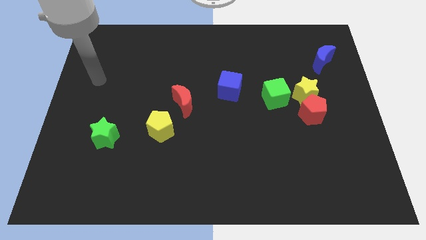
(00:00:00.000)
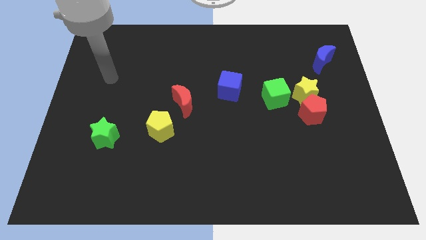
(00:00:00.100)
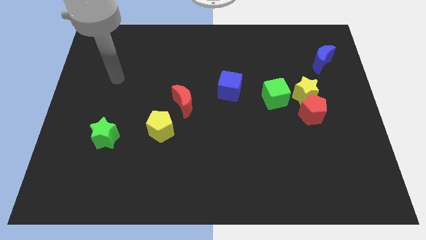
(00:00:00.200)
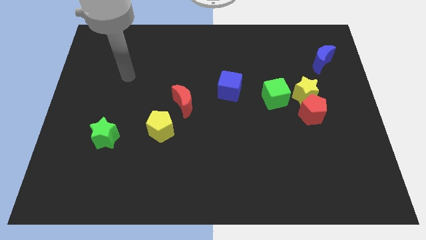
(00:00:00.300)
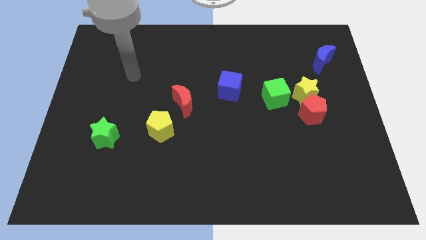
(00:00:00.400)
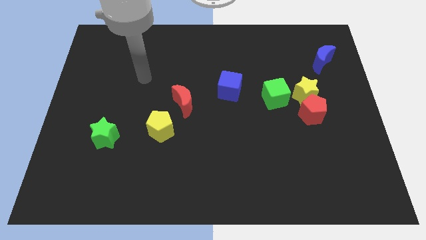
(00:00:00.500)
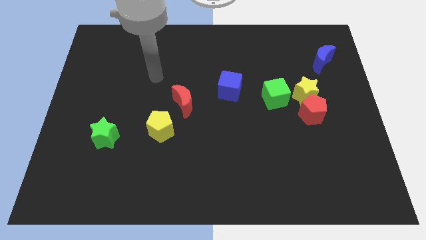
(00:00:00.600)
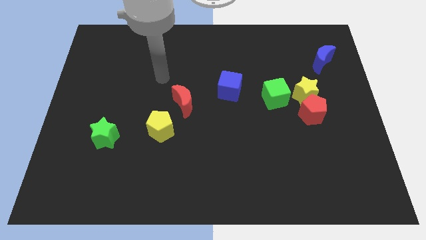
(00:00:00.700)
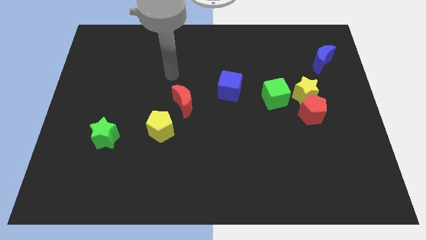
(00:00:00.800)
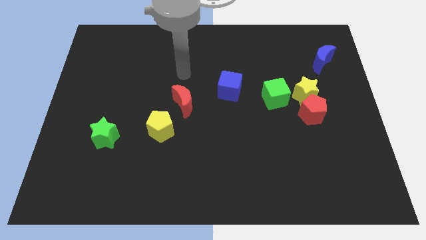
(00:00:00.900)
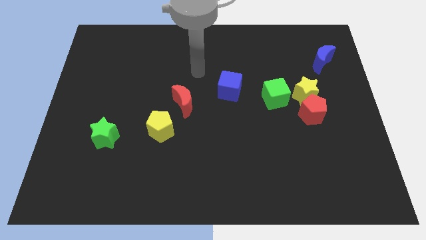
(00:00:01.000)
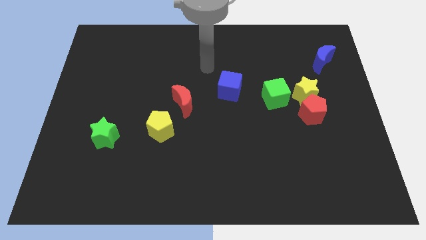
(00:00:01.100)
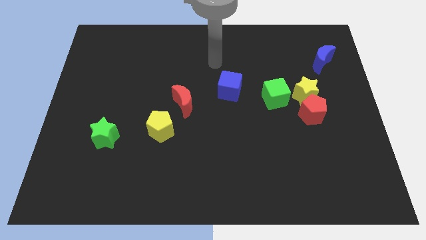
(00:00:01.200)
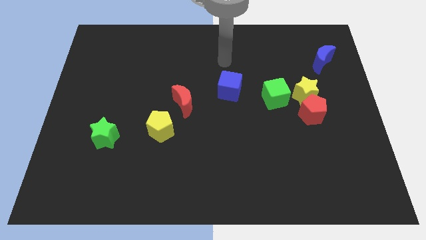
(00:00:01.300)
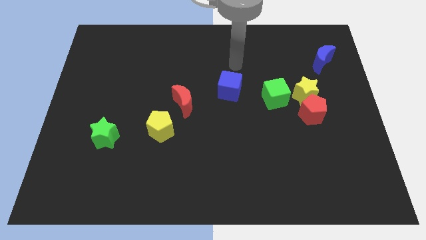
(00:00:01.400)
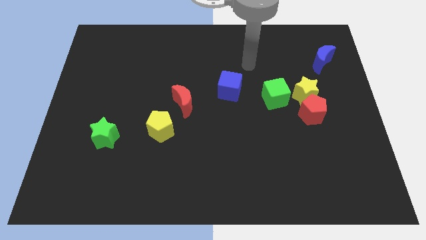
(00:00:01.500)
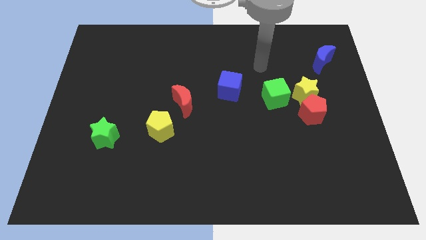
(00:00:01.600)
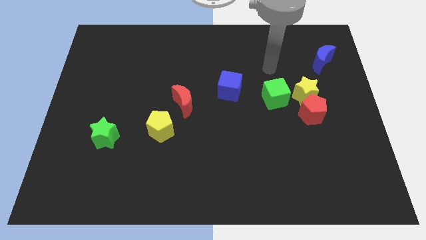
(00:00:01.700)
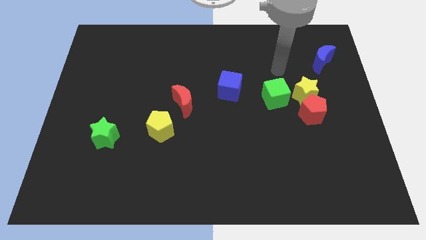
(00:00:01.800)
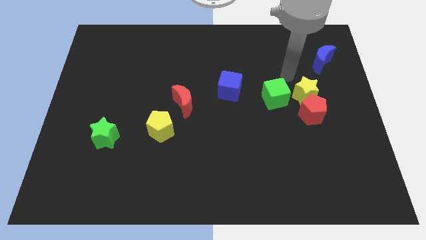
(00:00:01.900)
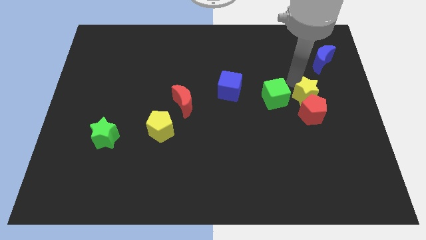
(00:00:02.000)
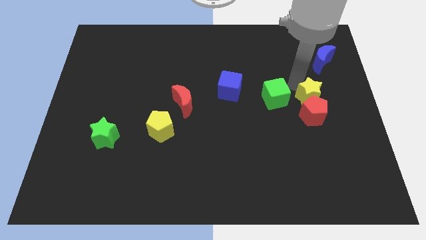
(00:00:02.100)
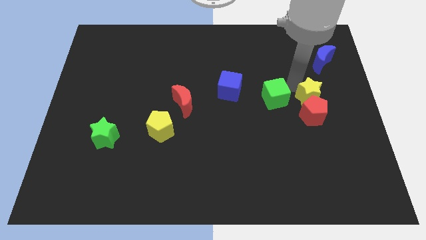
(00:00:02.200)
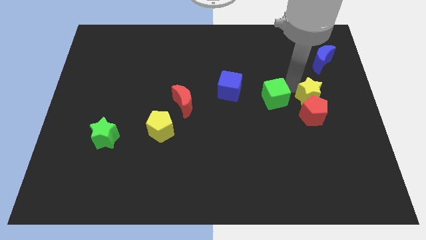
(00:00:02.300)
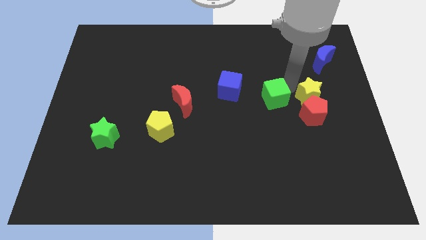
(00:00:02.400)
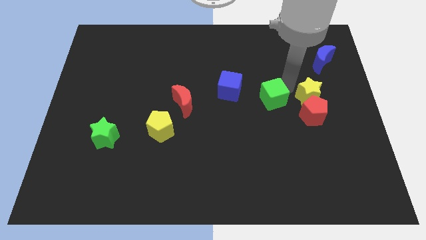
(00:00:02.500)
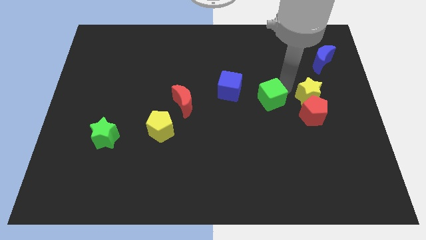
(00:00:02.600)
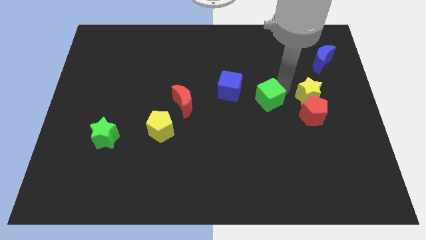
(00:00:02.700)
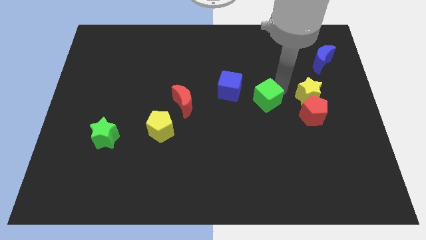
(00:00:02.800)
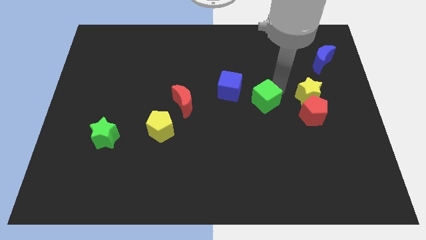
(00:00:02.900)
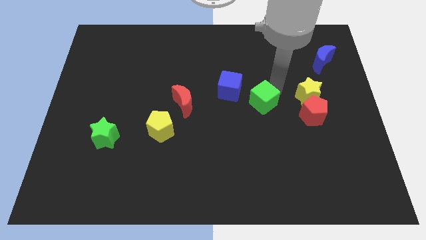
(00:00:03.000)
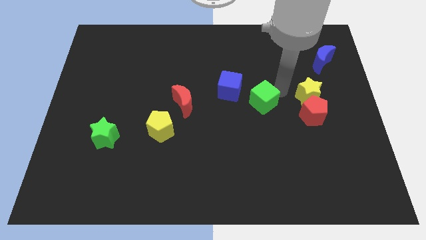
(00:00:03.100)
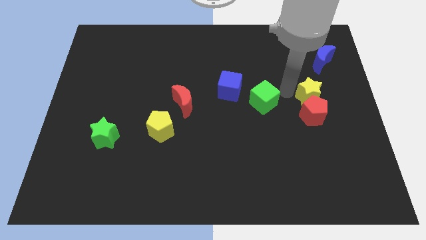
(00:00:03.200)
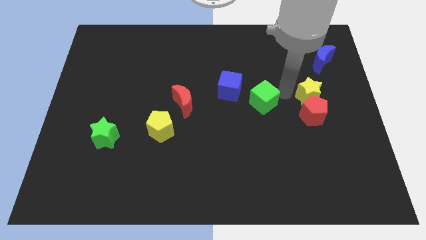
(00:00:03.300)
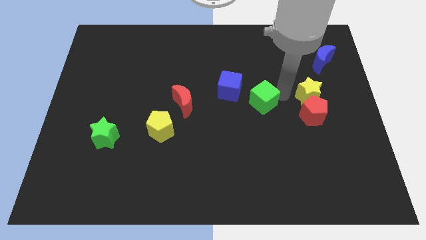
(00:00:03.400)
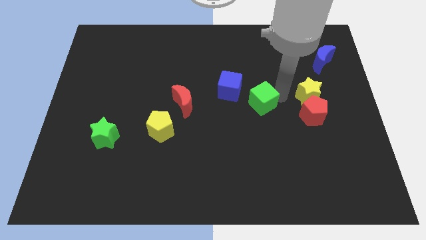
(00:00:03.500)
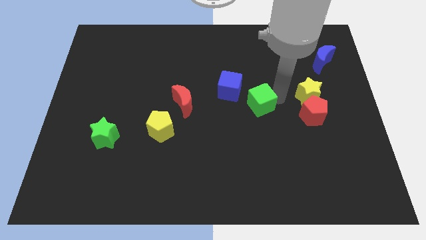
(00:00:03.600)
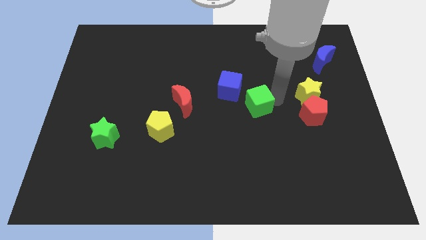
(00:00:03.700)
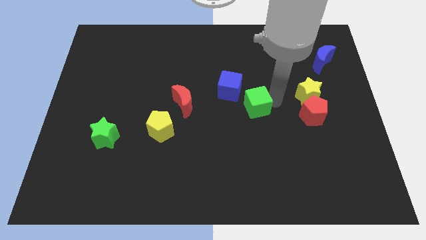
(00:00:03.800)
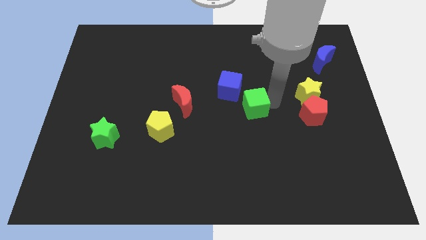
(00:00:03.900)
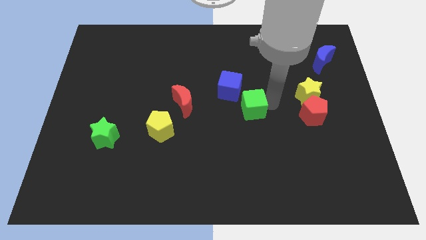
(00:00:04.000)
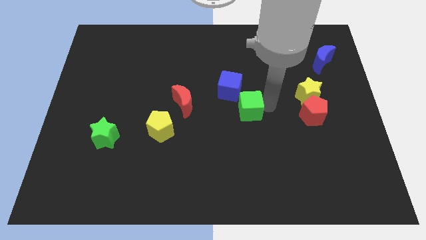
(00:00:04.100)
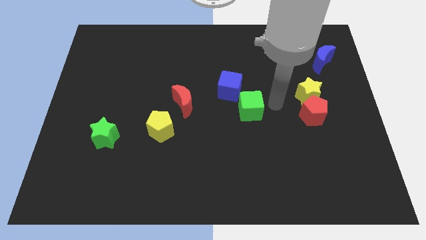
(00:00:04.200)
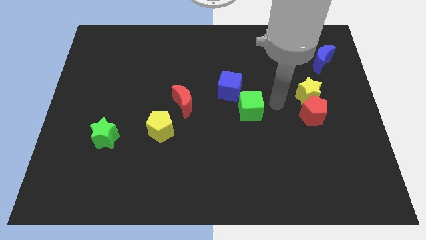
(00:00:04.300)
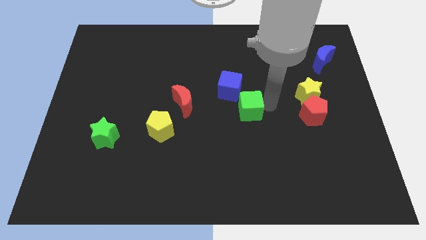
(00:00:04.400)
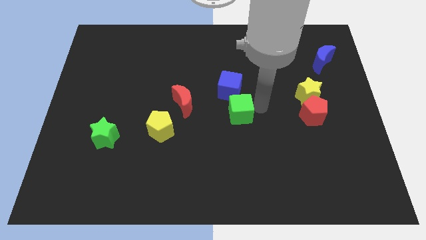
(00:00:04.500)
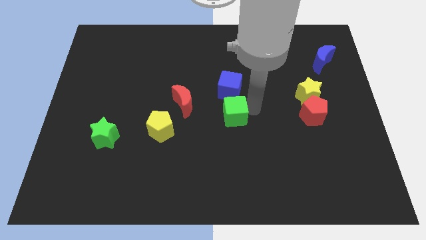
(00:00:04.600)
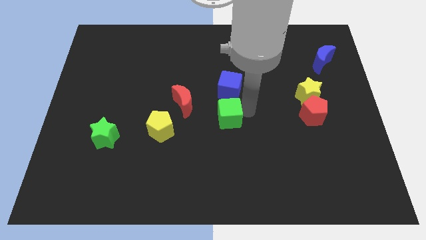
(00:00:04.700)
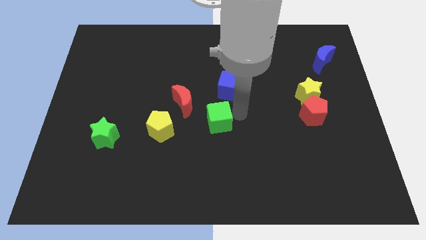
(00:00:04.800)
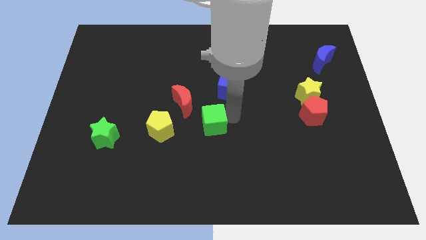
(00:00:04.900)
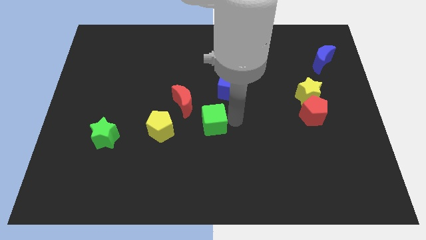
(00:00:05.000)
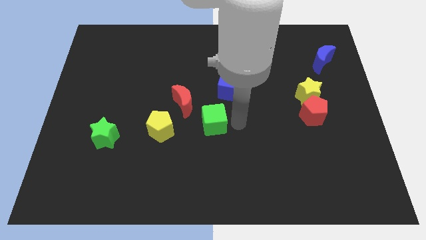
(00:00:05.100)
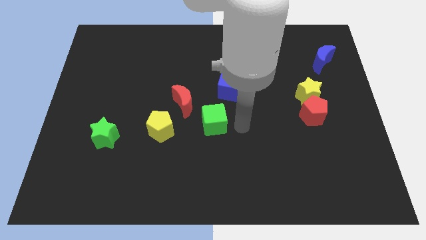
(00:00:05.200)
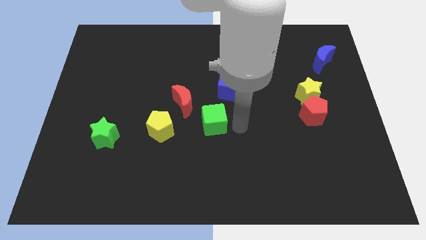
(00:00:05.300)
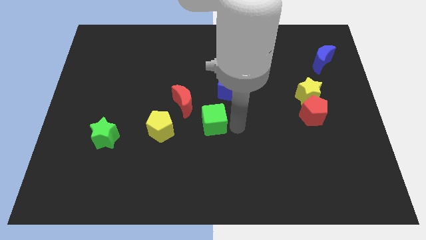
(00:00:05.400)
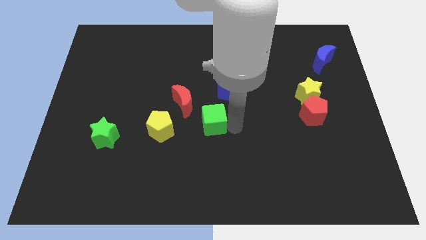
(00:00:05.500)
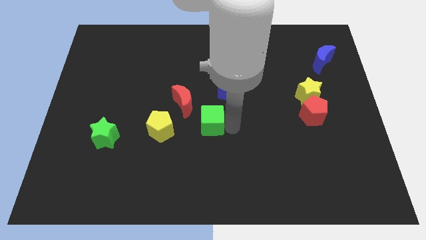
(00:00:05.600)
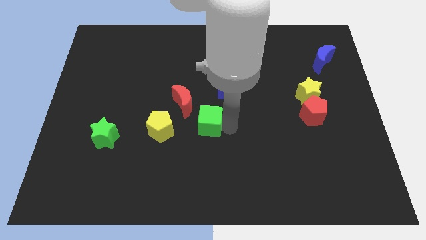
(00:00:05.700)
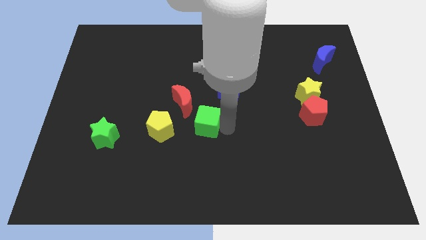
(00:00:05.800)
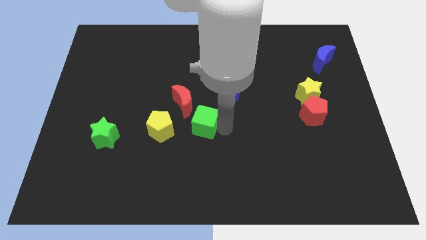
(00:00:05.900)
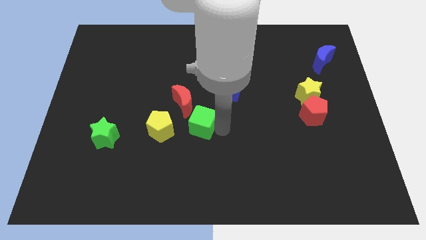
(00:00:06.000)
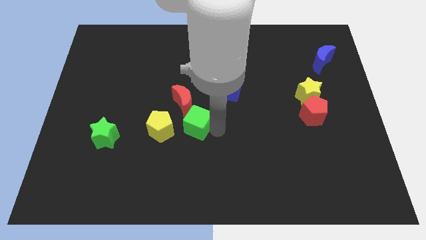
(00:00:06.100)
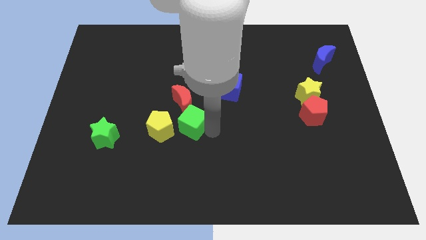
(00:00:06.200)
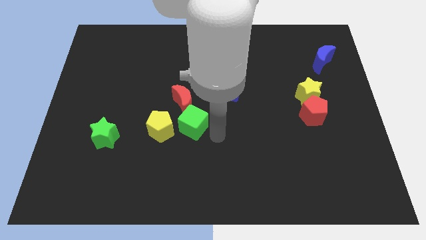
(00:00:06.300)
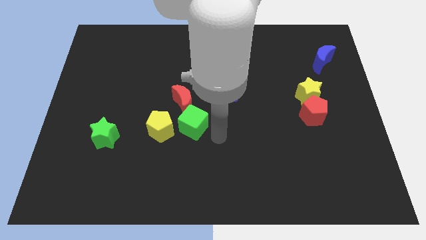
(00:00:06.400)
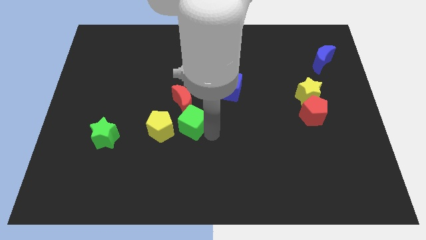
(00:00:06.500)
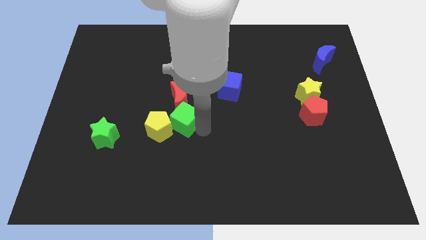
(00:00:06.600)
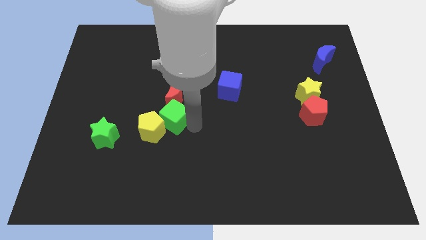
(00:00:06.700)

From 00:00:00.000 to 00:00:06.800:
push the green cube left

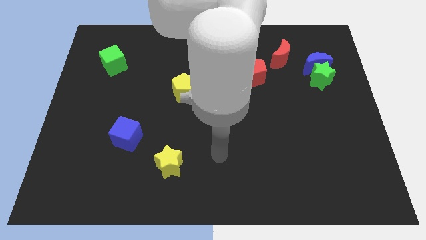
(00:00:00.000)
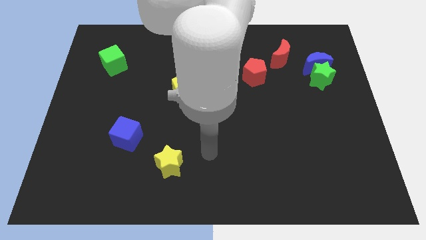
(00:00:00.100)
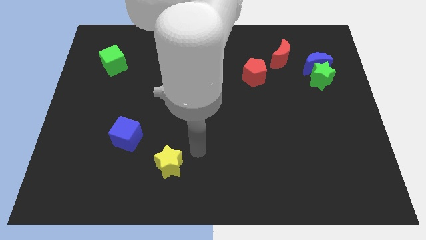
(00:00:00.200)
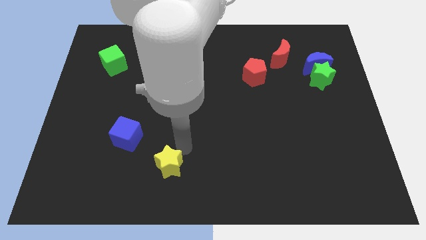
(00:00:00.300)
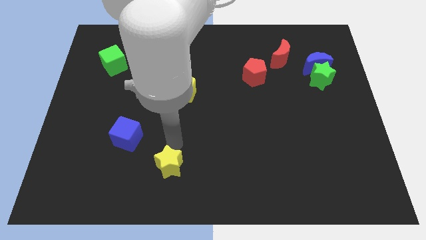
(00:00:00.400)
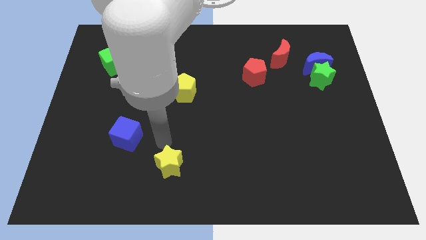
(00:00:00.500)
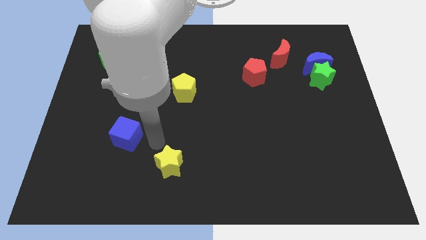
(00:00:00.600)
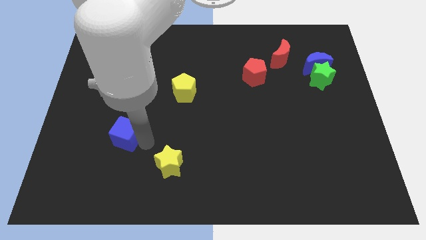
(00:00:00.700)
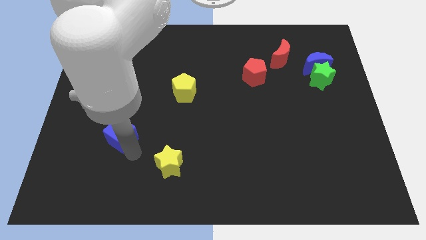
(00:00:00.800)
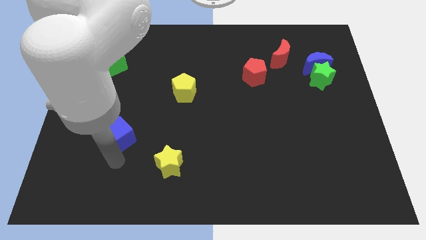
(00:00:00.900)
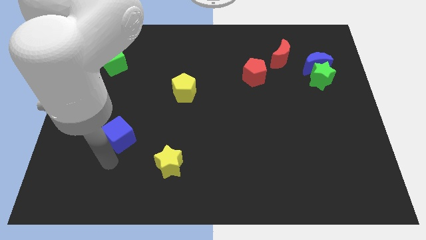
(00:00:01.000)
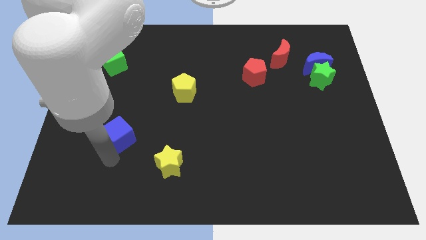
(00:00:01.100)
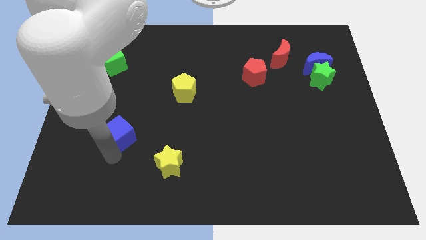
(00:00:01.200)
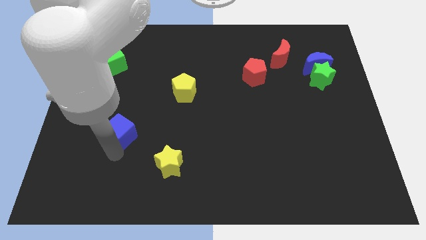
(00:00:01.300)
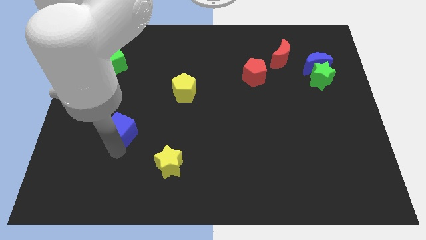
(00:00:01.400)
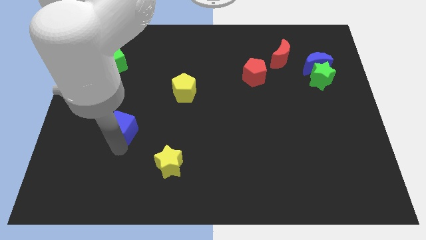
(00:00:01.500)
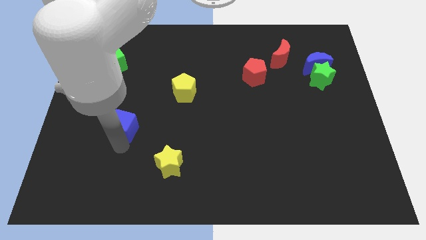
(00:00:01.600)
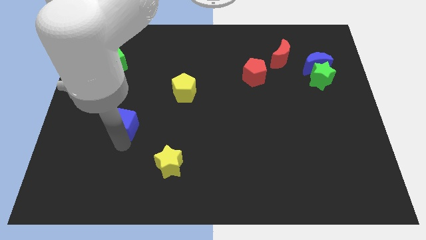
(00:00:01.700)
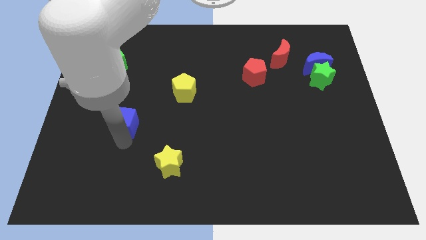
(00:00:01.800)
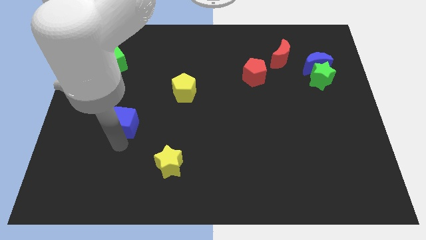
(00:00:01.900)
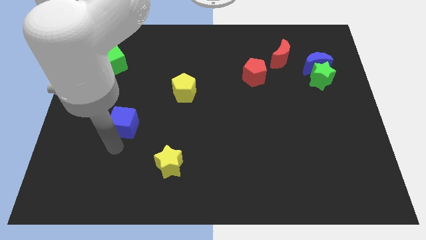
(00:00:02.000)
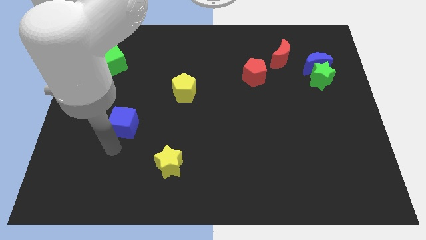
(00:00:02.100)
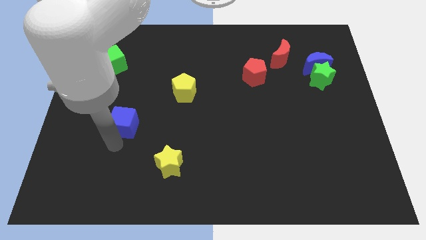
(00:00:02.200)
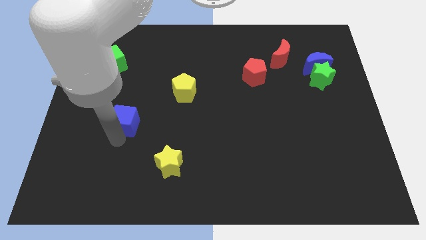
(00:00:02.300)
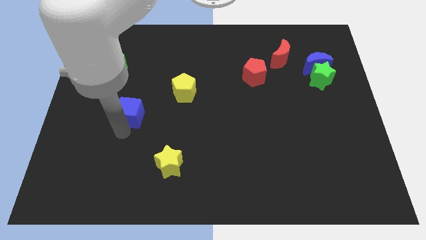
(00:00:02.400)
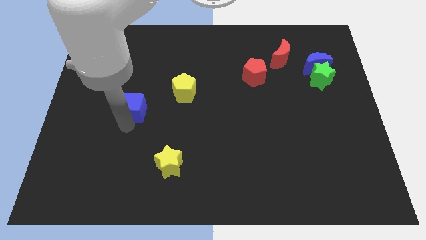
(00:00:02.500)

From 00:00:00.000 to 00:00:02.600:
move the blue cube up a little
